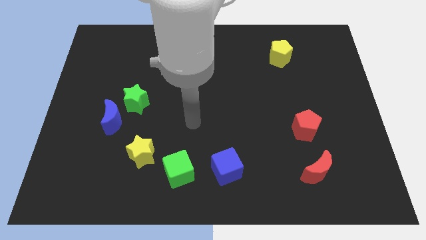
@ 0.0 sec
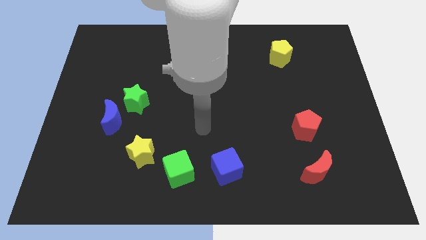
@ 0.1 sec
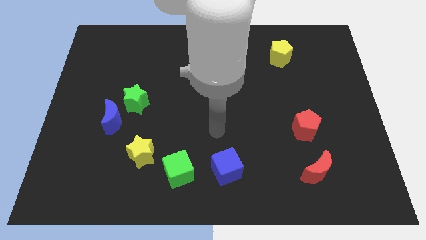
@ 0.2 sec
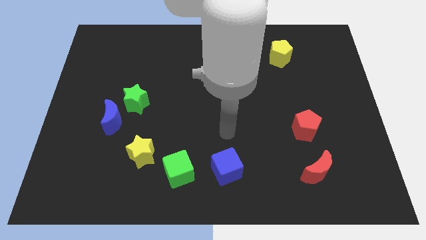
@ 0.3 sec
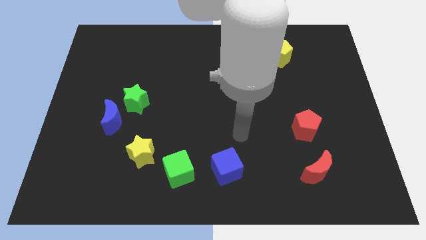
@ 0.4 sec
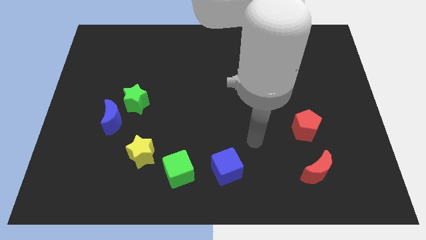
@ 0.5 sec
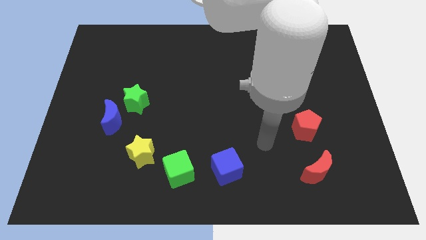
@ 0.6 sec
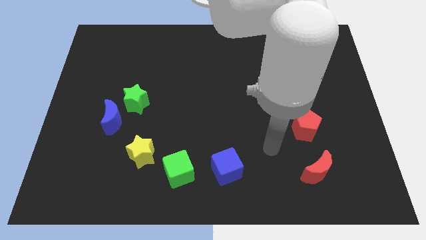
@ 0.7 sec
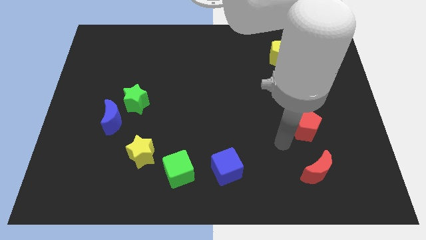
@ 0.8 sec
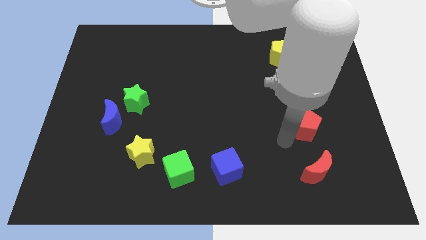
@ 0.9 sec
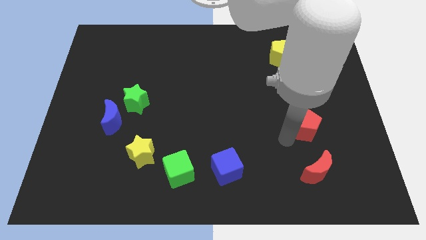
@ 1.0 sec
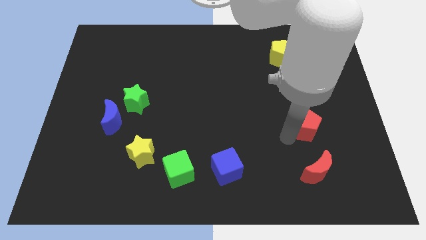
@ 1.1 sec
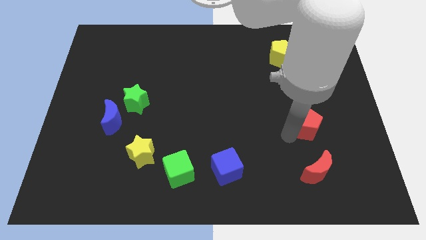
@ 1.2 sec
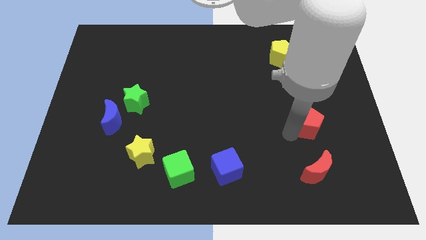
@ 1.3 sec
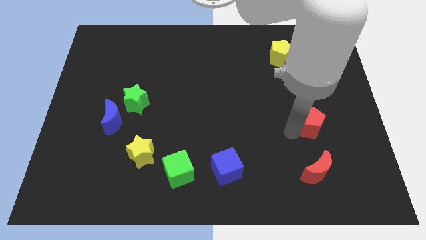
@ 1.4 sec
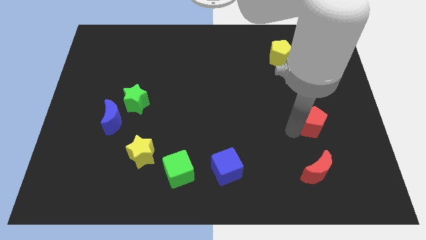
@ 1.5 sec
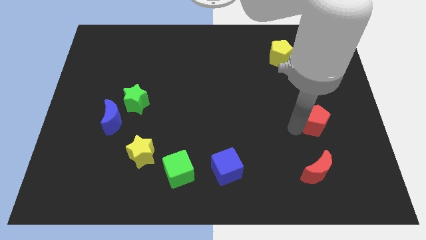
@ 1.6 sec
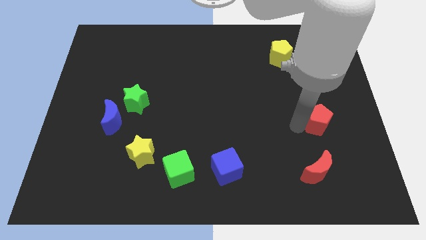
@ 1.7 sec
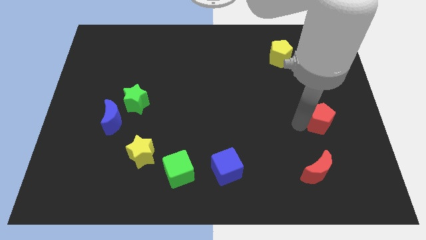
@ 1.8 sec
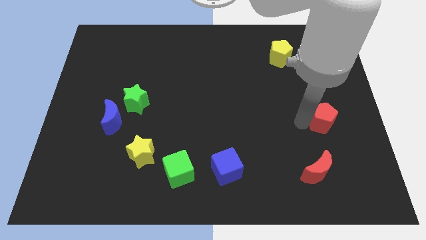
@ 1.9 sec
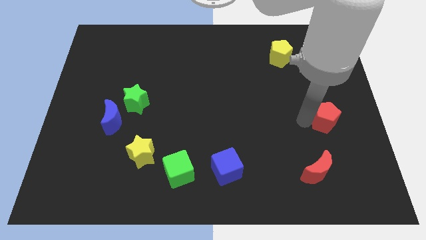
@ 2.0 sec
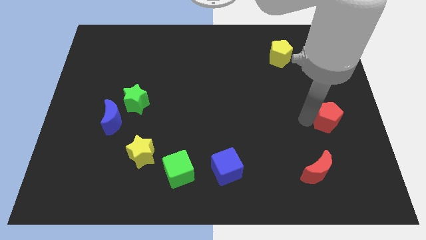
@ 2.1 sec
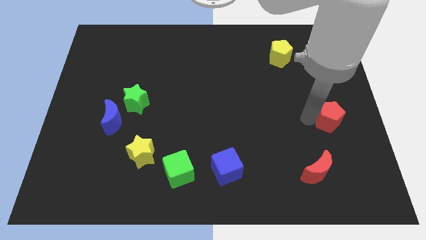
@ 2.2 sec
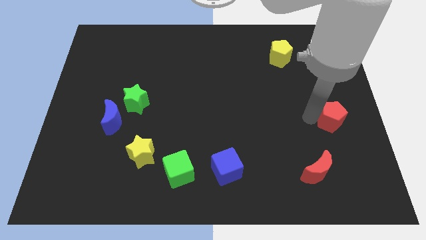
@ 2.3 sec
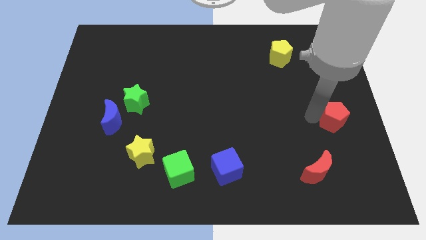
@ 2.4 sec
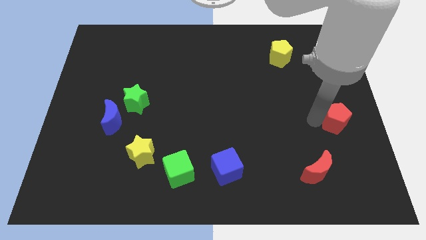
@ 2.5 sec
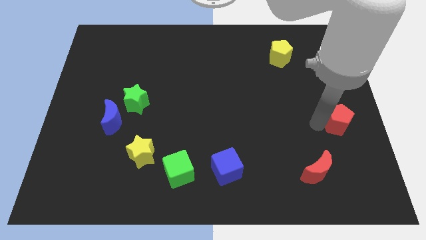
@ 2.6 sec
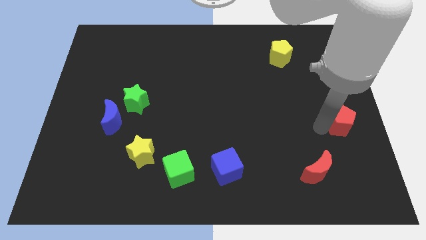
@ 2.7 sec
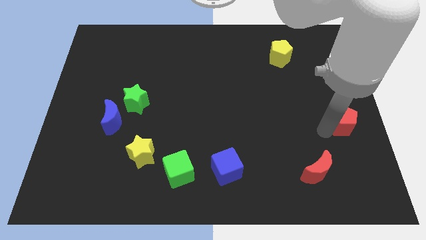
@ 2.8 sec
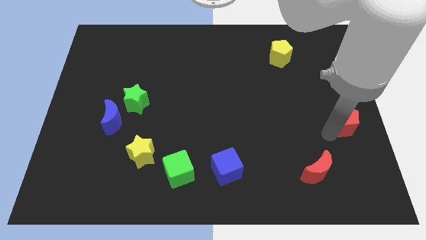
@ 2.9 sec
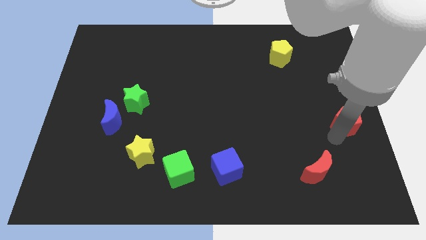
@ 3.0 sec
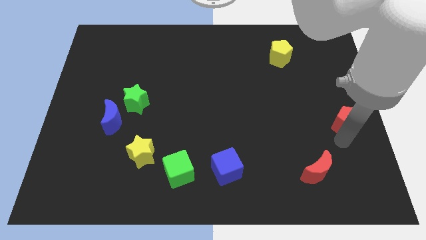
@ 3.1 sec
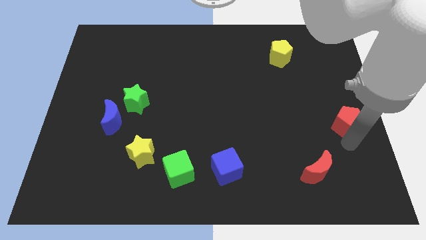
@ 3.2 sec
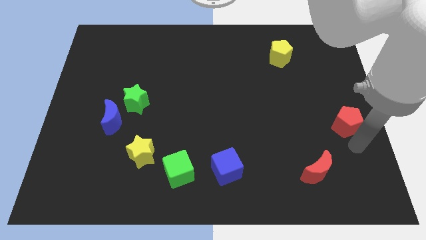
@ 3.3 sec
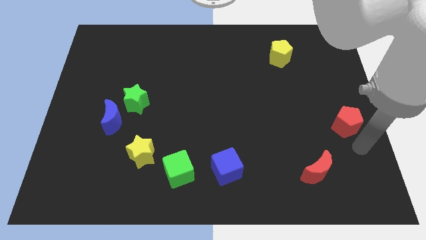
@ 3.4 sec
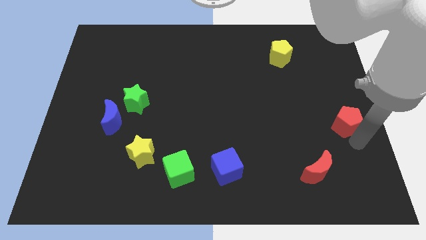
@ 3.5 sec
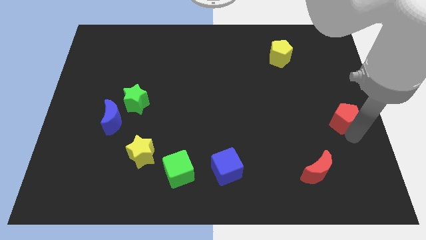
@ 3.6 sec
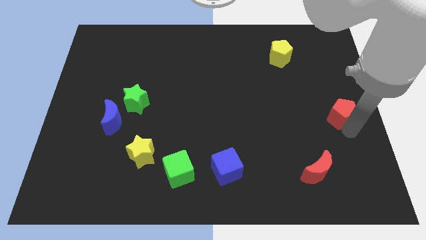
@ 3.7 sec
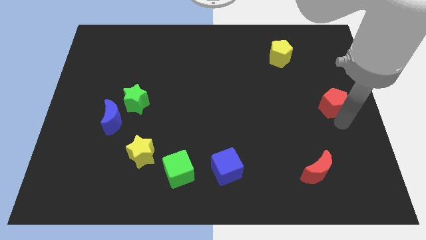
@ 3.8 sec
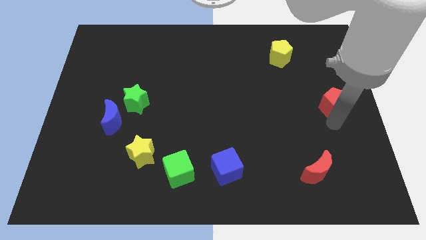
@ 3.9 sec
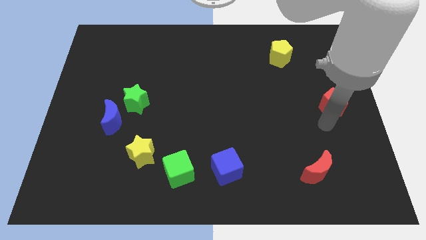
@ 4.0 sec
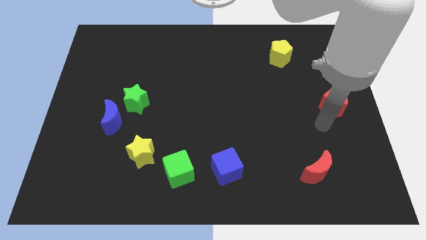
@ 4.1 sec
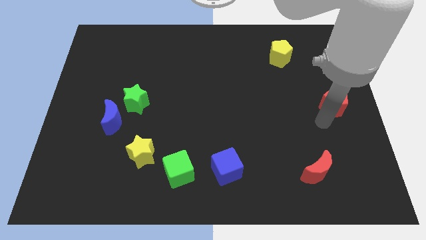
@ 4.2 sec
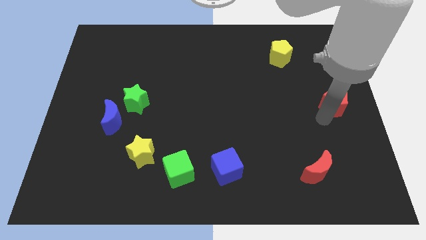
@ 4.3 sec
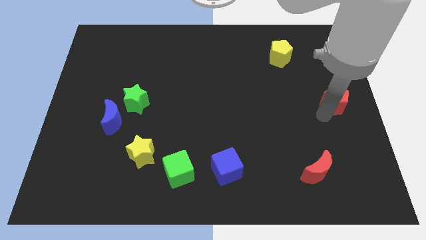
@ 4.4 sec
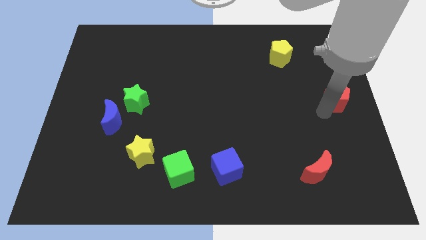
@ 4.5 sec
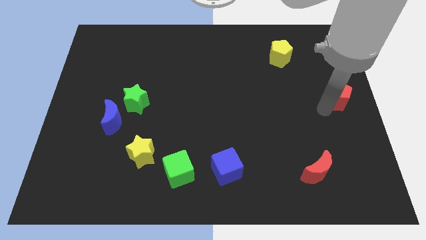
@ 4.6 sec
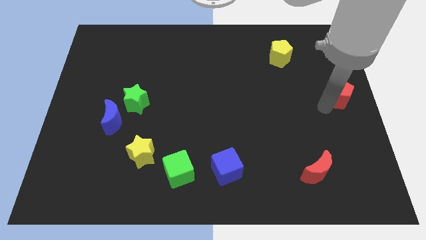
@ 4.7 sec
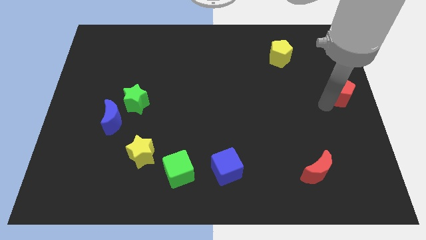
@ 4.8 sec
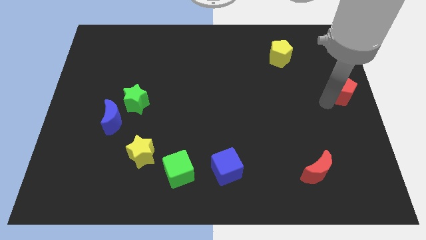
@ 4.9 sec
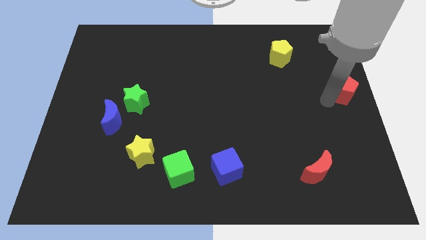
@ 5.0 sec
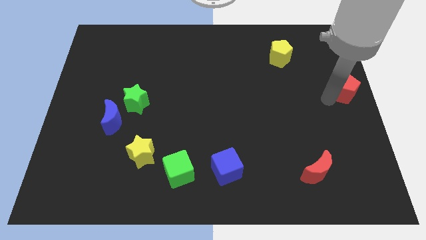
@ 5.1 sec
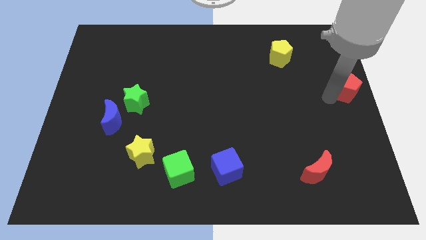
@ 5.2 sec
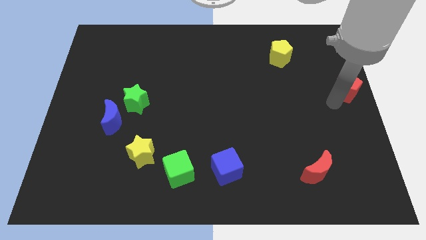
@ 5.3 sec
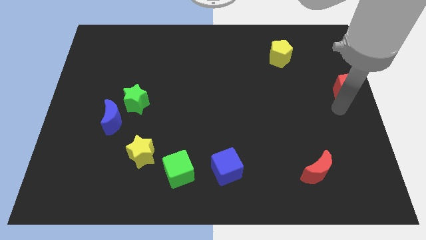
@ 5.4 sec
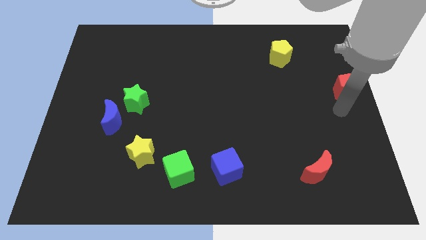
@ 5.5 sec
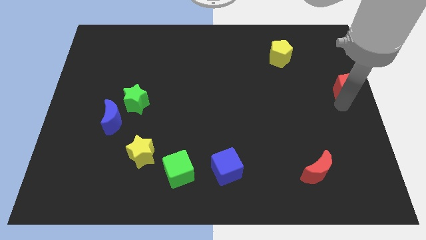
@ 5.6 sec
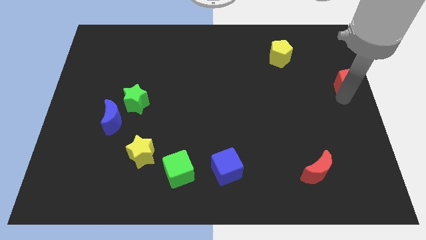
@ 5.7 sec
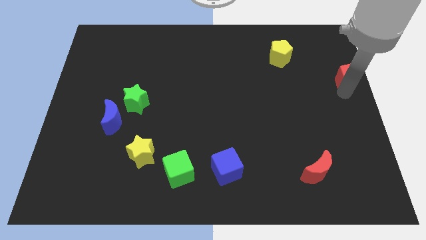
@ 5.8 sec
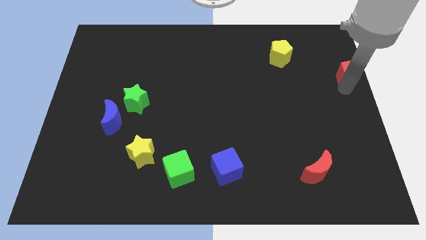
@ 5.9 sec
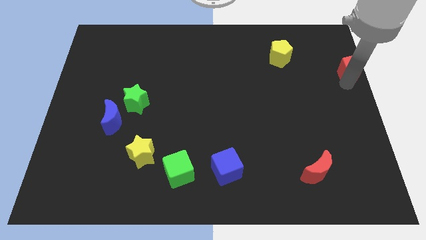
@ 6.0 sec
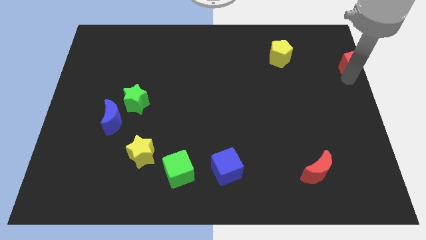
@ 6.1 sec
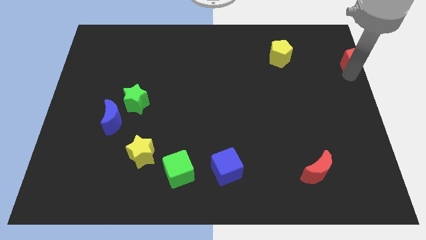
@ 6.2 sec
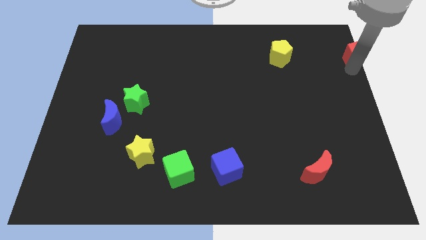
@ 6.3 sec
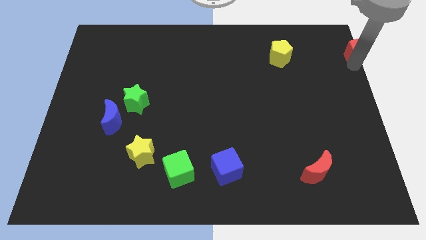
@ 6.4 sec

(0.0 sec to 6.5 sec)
put the red pentagon to the top right
